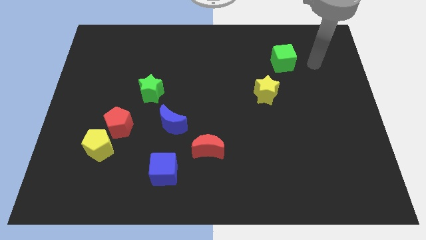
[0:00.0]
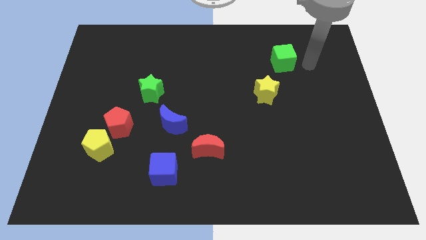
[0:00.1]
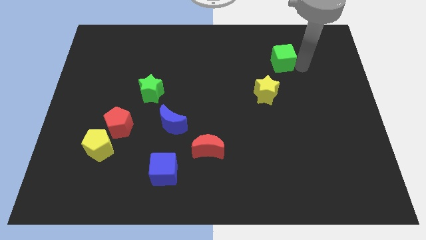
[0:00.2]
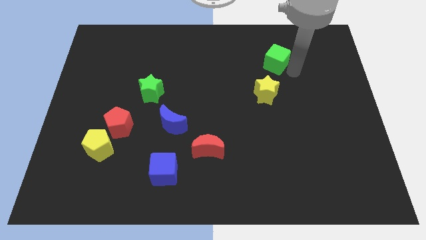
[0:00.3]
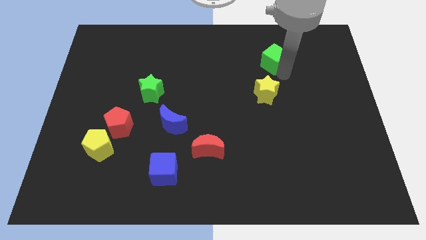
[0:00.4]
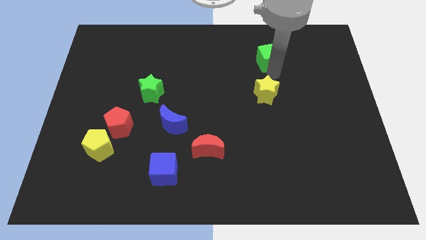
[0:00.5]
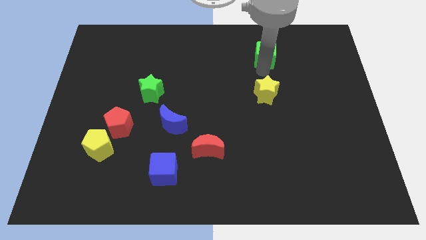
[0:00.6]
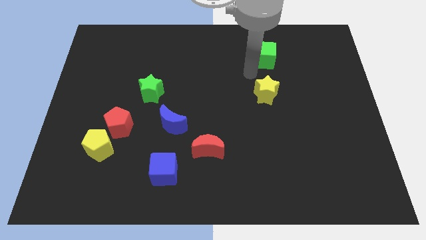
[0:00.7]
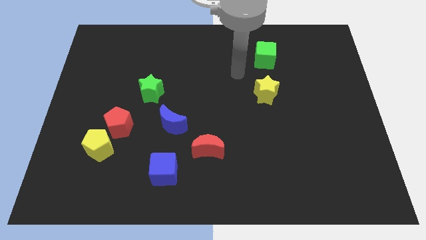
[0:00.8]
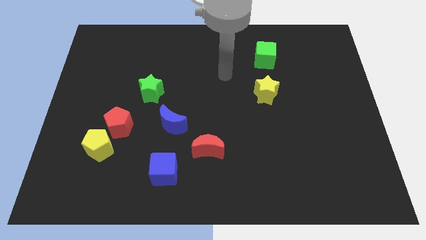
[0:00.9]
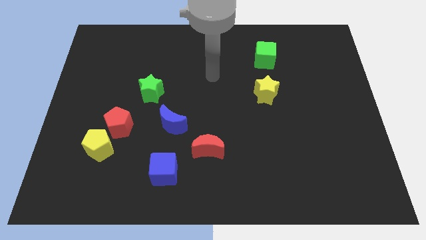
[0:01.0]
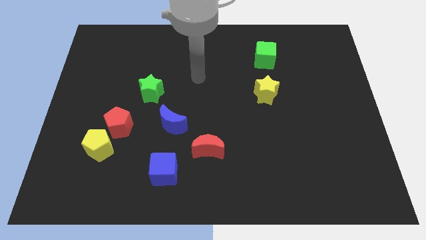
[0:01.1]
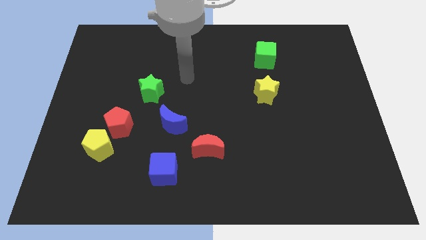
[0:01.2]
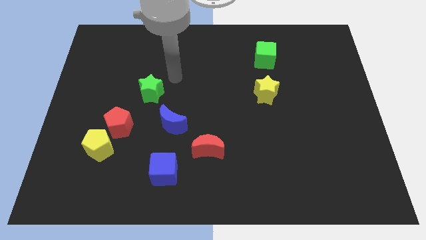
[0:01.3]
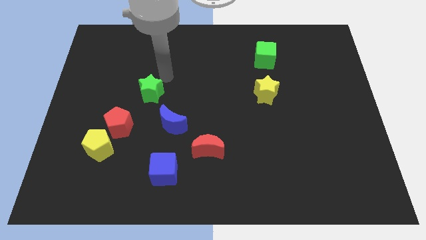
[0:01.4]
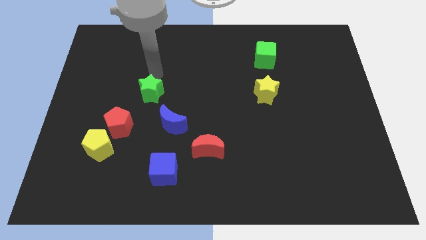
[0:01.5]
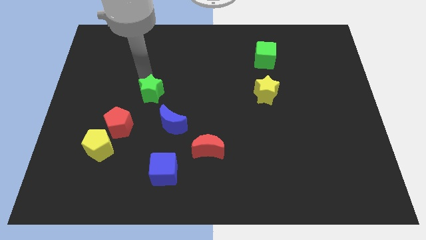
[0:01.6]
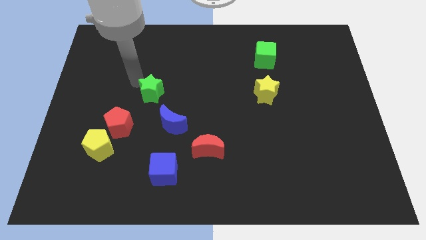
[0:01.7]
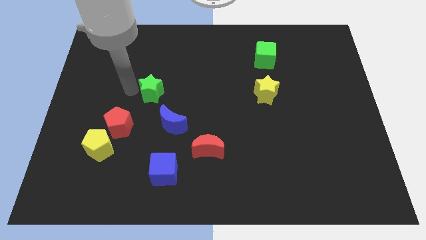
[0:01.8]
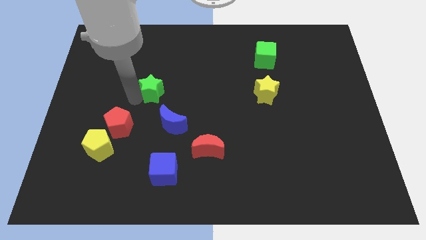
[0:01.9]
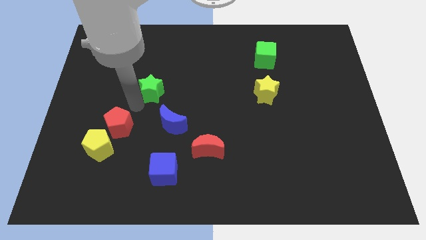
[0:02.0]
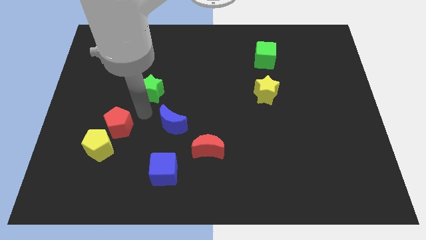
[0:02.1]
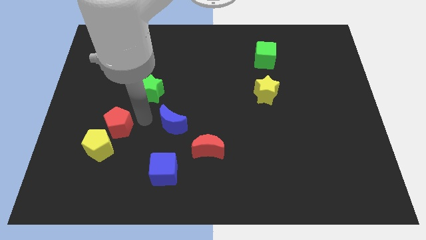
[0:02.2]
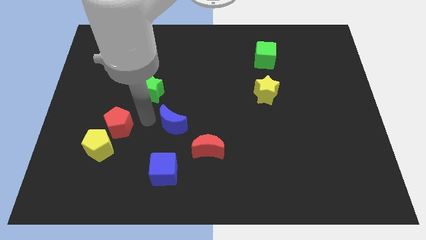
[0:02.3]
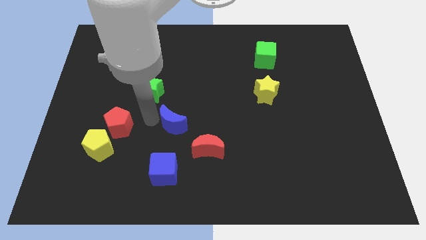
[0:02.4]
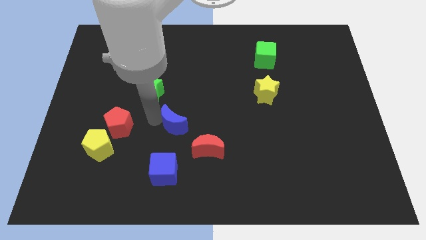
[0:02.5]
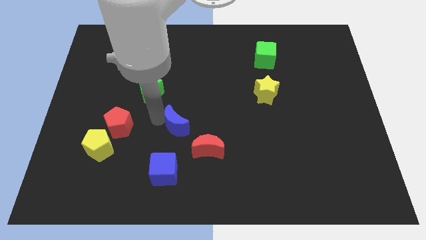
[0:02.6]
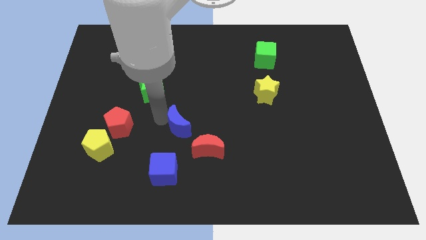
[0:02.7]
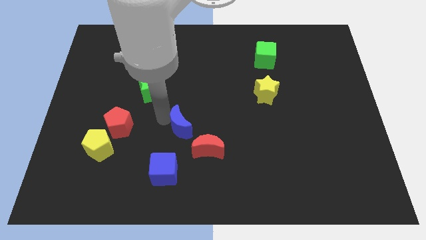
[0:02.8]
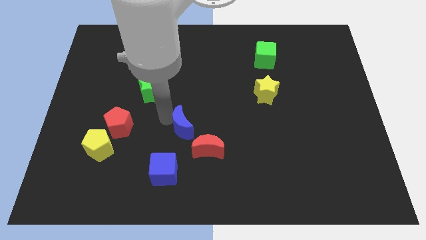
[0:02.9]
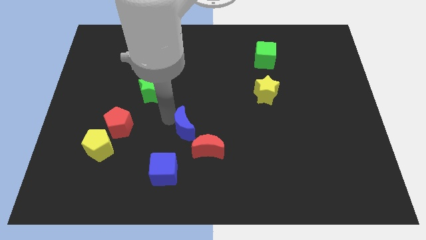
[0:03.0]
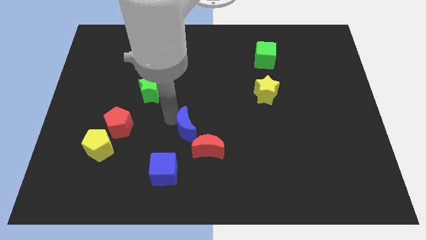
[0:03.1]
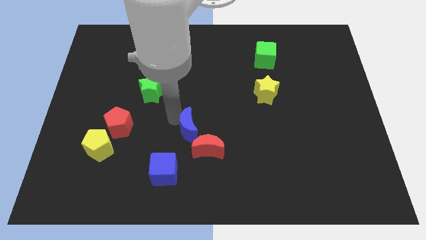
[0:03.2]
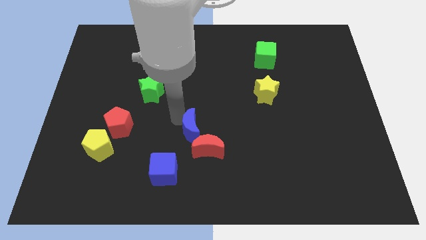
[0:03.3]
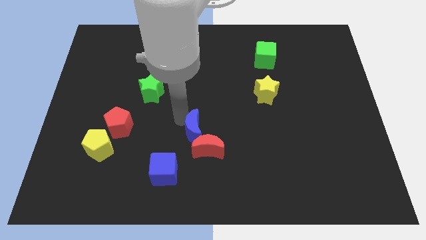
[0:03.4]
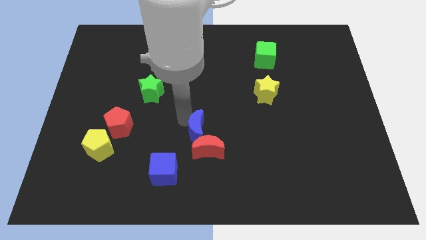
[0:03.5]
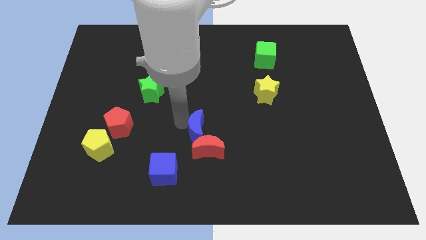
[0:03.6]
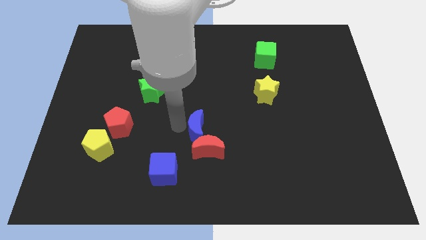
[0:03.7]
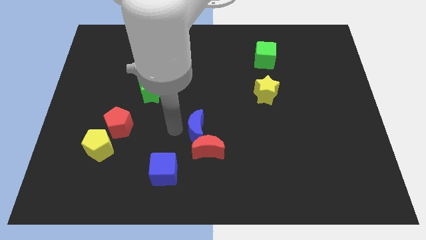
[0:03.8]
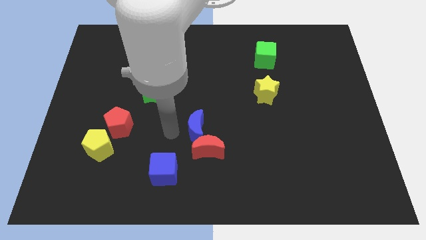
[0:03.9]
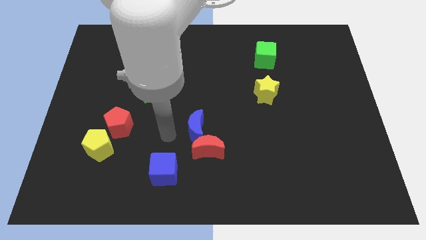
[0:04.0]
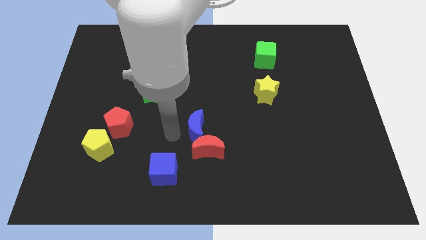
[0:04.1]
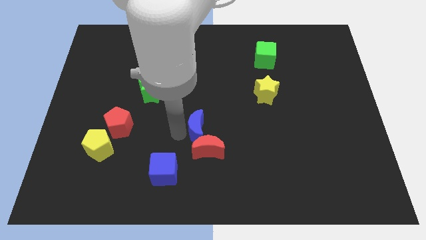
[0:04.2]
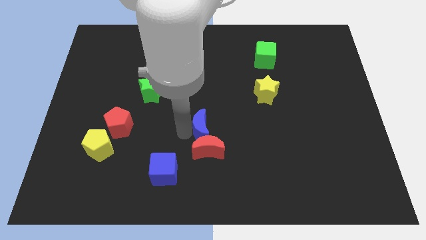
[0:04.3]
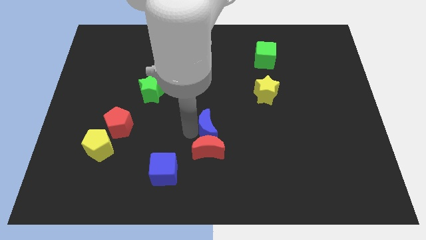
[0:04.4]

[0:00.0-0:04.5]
slightly push the blue moon to the right

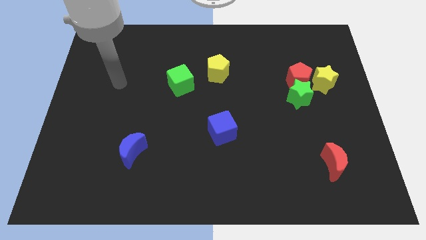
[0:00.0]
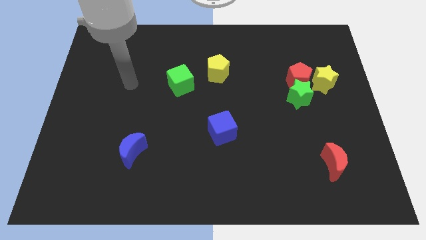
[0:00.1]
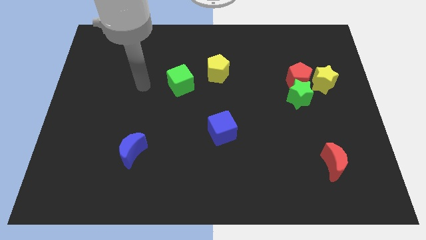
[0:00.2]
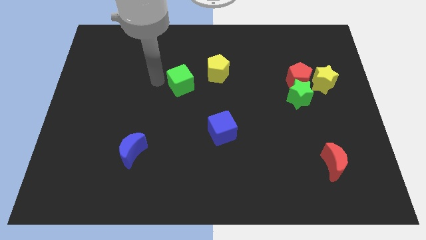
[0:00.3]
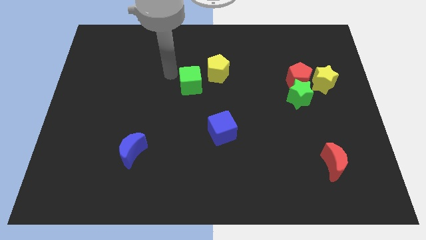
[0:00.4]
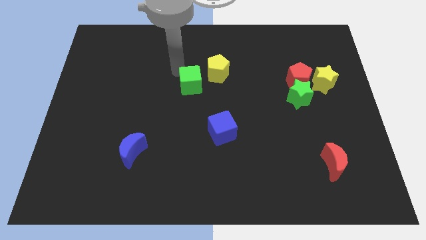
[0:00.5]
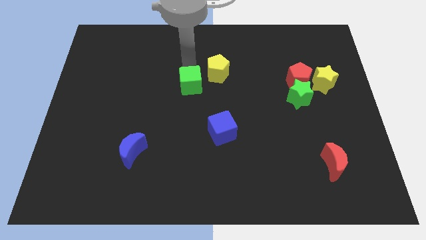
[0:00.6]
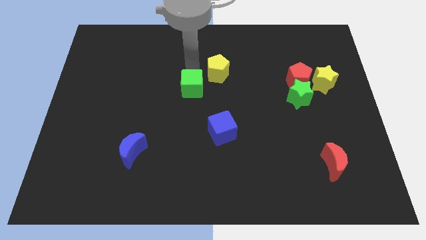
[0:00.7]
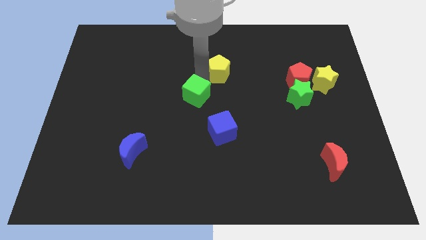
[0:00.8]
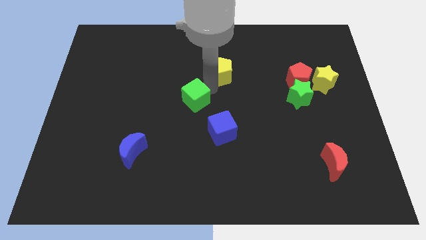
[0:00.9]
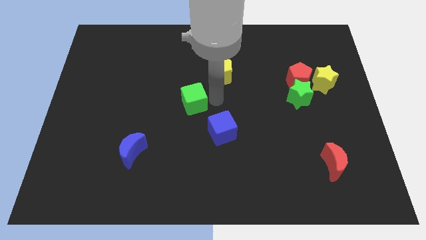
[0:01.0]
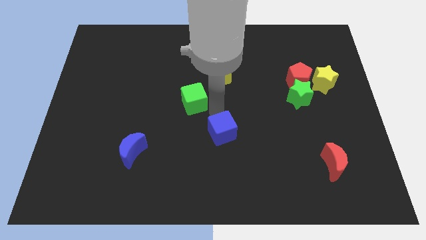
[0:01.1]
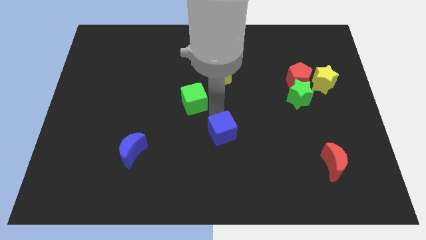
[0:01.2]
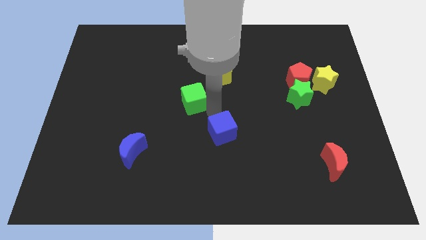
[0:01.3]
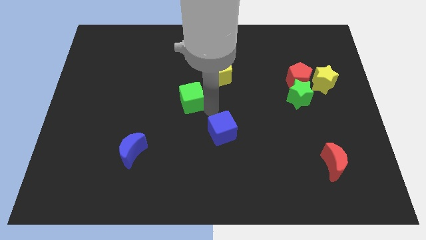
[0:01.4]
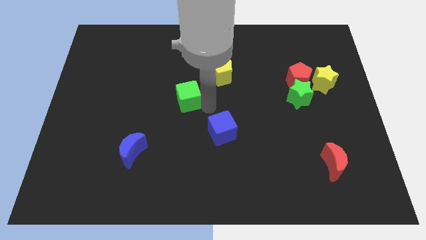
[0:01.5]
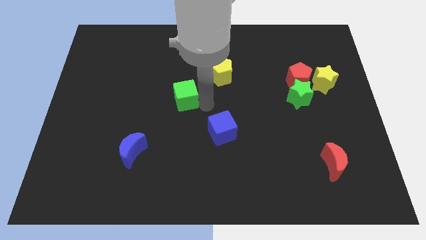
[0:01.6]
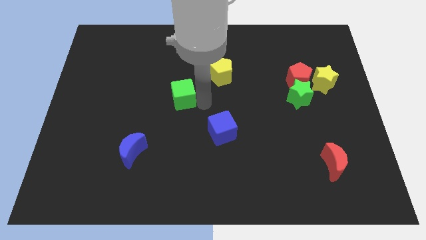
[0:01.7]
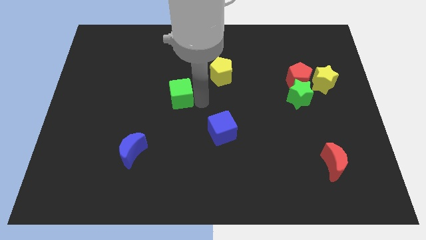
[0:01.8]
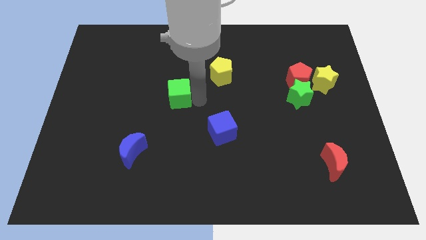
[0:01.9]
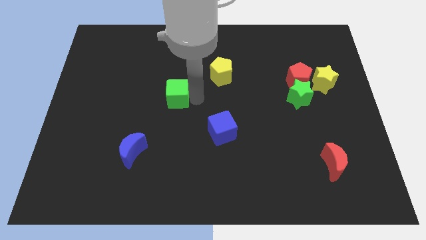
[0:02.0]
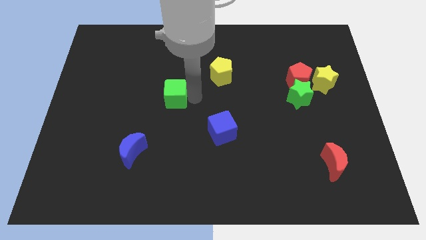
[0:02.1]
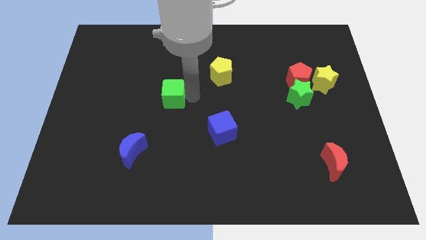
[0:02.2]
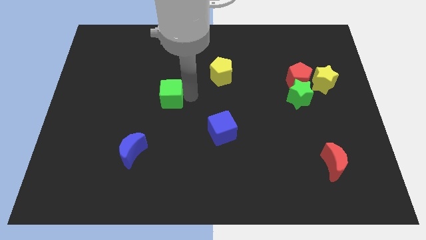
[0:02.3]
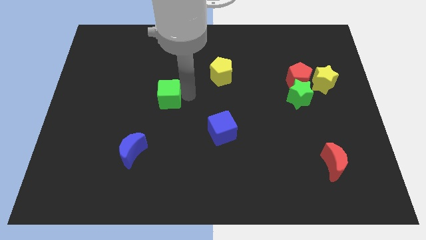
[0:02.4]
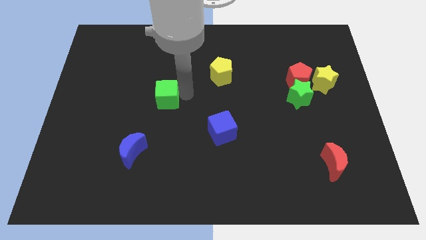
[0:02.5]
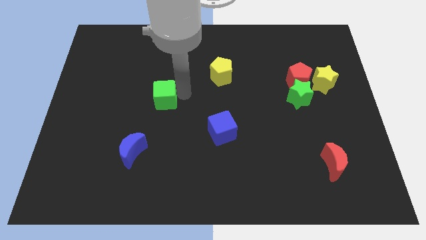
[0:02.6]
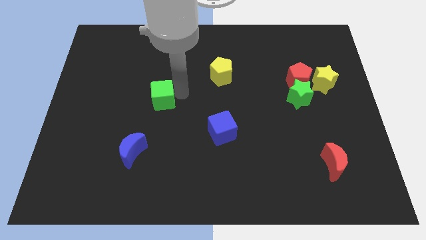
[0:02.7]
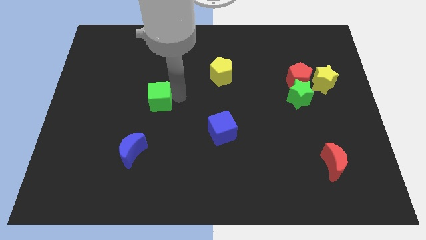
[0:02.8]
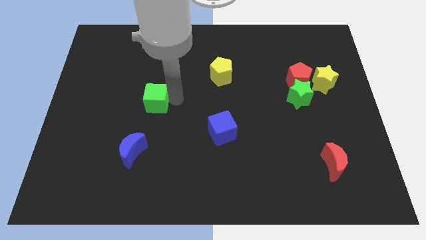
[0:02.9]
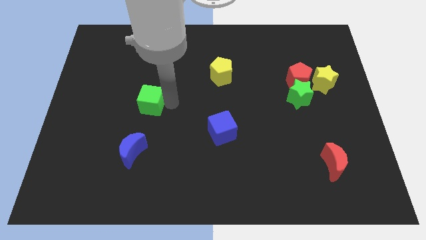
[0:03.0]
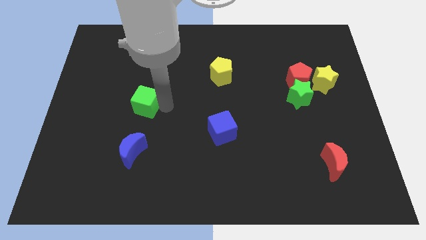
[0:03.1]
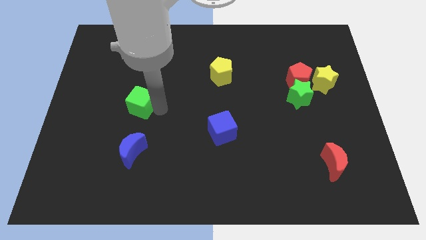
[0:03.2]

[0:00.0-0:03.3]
slightly move the green cube to the left
